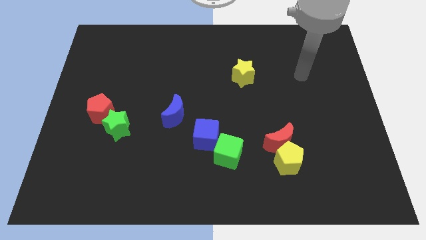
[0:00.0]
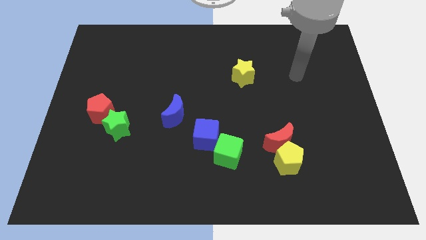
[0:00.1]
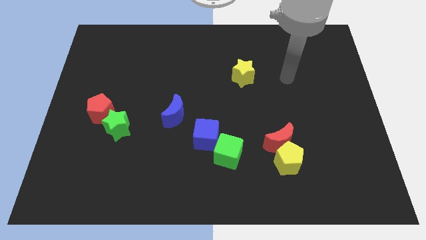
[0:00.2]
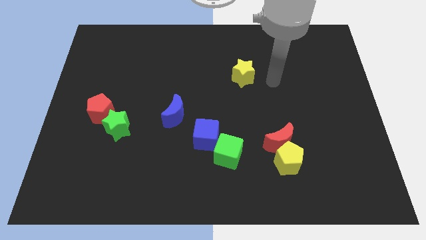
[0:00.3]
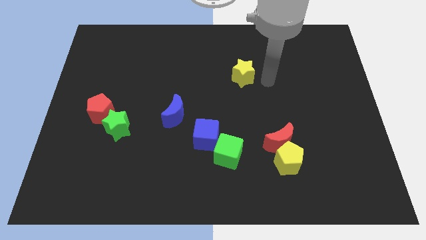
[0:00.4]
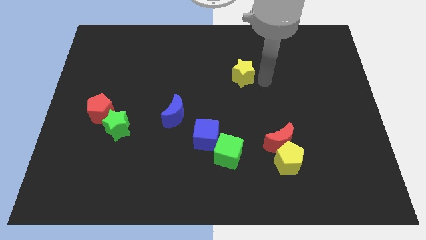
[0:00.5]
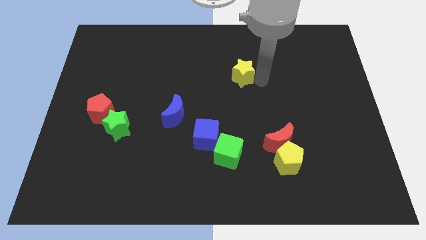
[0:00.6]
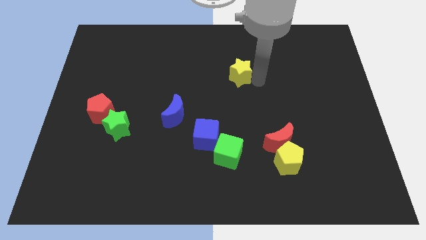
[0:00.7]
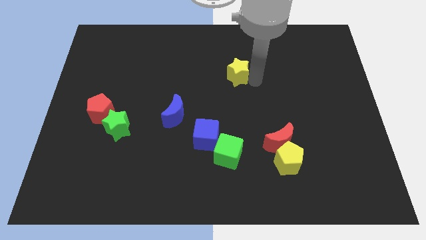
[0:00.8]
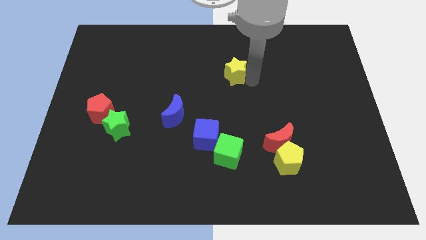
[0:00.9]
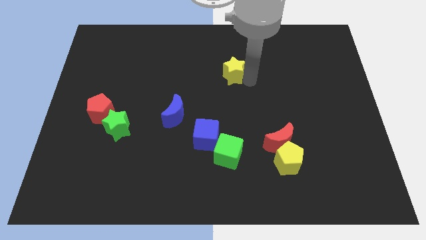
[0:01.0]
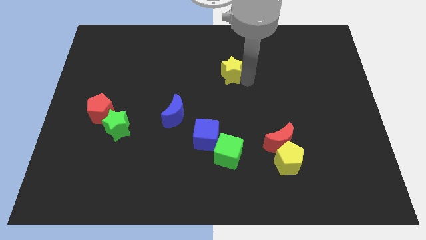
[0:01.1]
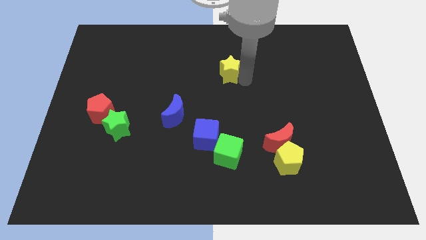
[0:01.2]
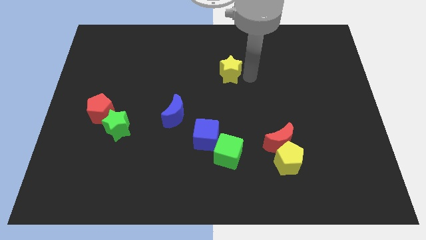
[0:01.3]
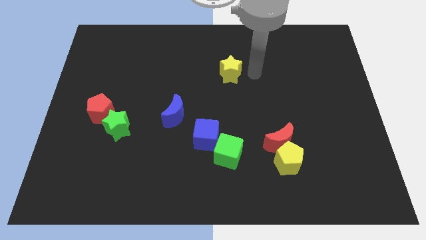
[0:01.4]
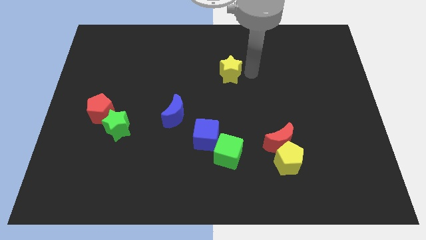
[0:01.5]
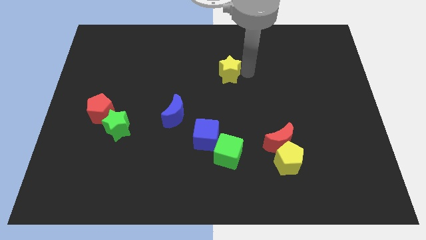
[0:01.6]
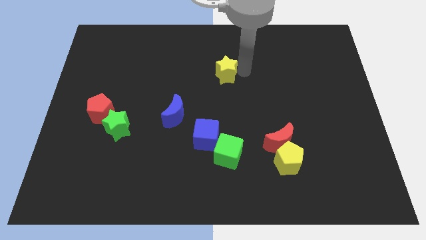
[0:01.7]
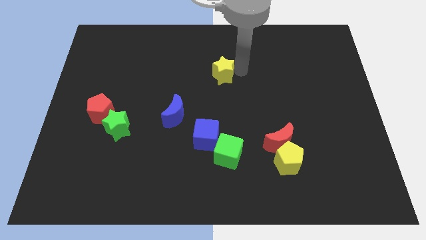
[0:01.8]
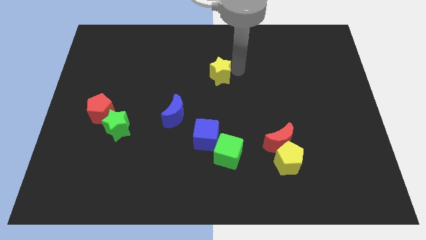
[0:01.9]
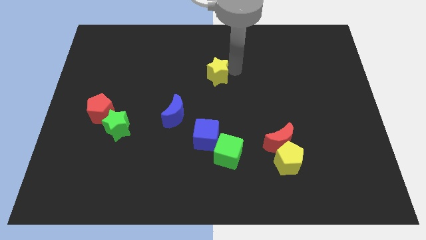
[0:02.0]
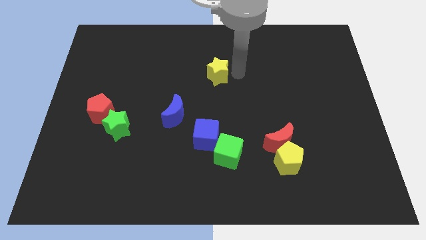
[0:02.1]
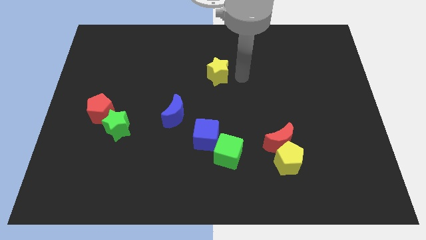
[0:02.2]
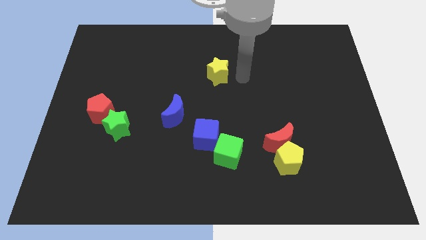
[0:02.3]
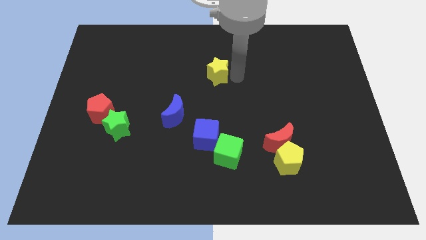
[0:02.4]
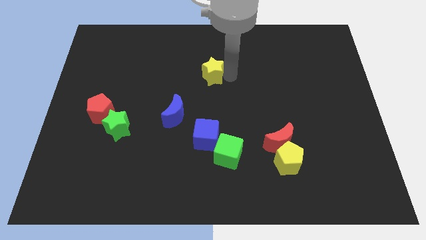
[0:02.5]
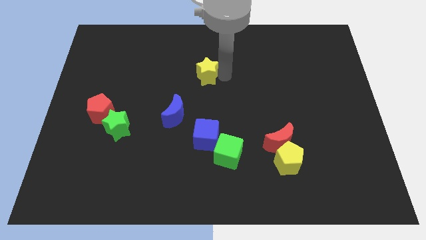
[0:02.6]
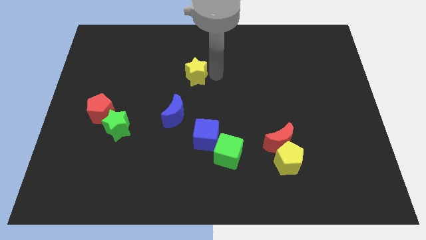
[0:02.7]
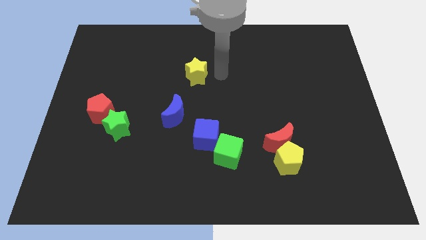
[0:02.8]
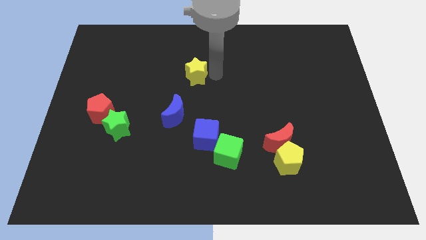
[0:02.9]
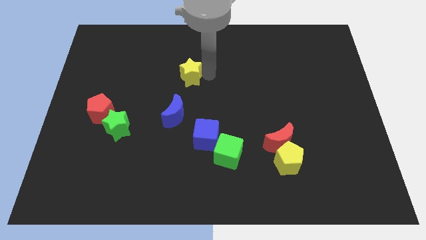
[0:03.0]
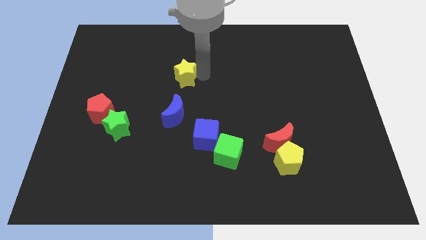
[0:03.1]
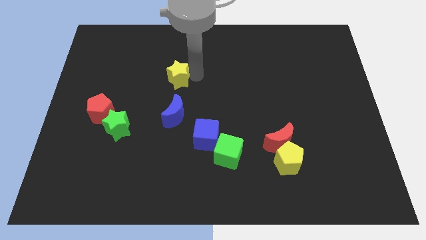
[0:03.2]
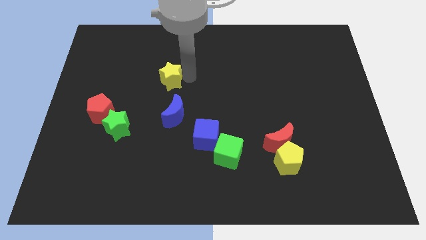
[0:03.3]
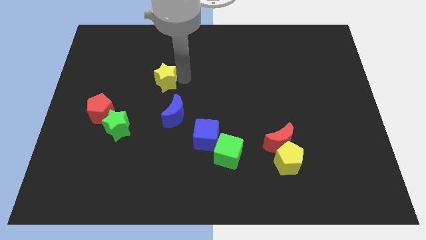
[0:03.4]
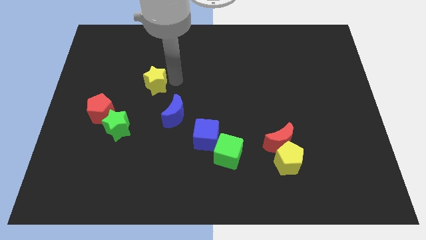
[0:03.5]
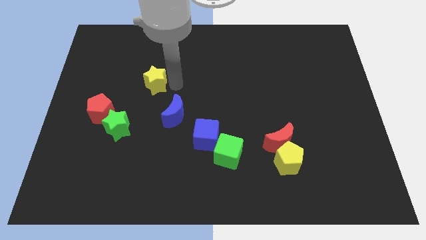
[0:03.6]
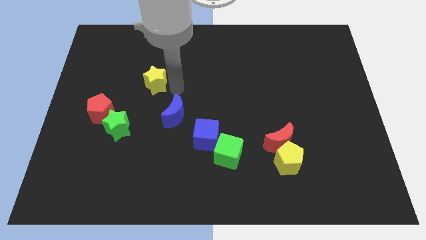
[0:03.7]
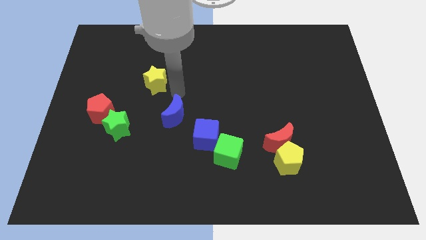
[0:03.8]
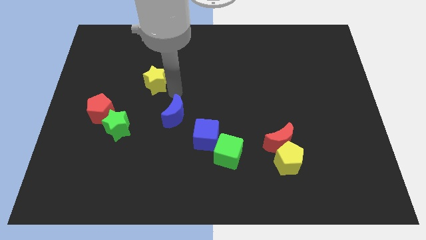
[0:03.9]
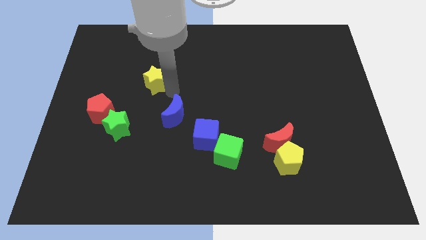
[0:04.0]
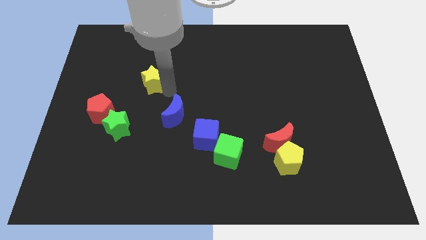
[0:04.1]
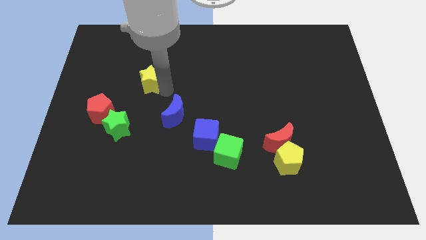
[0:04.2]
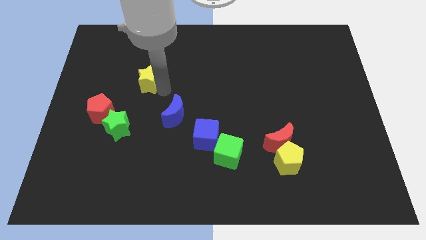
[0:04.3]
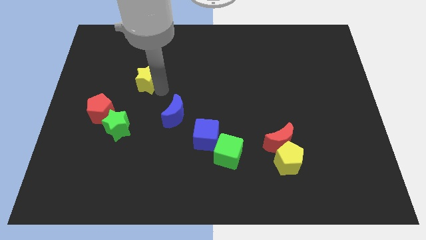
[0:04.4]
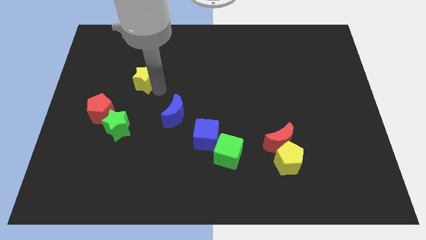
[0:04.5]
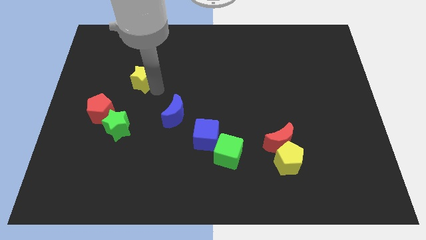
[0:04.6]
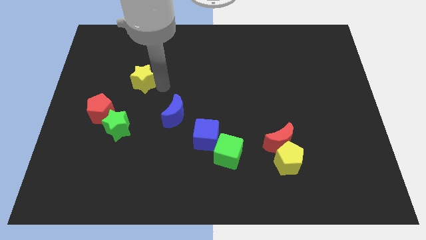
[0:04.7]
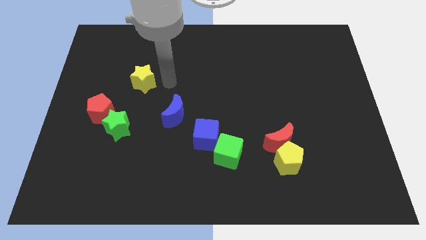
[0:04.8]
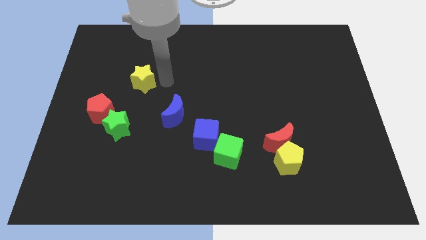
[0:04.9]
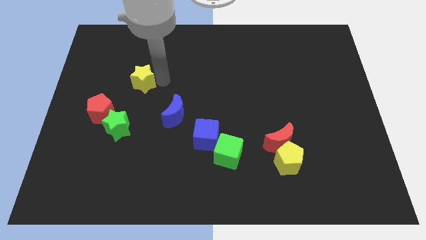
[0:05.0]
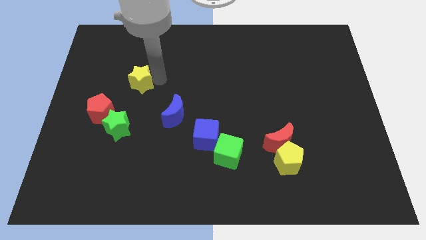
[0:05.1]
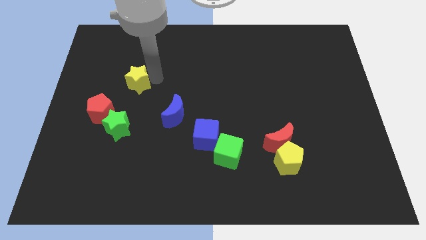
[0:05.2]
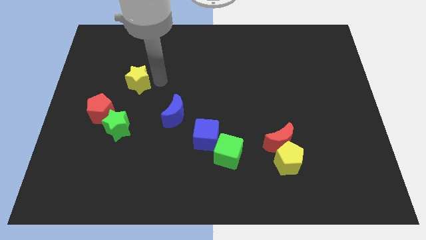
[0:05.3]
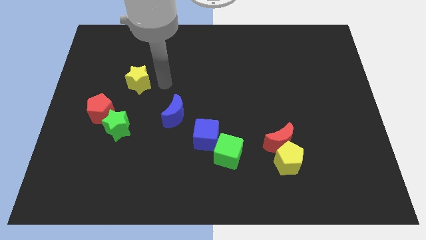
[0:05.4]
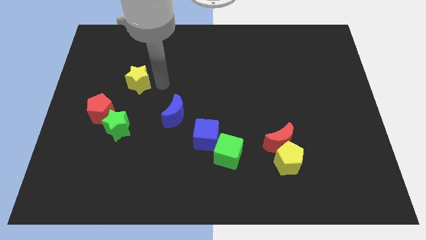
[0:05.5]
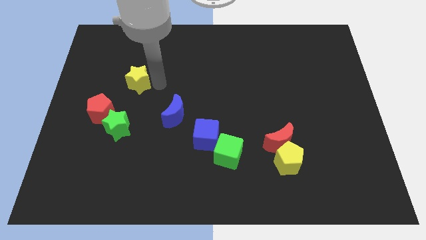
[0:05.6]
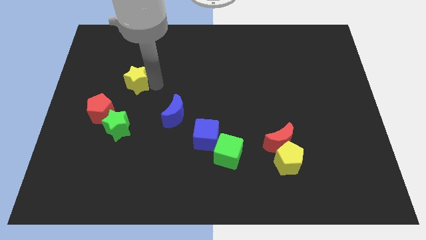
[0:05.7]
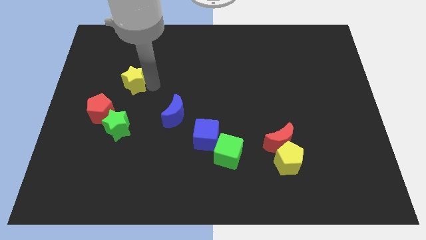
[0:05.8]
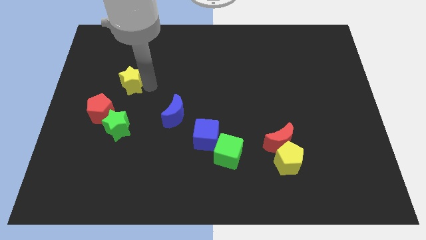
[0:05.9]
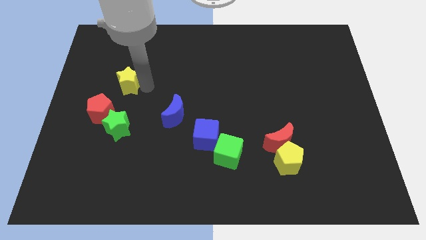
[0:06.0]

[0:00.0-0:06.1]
put the yellow star to the top side of the red pentagon
